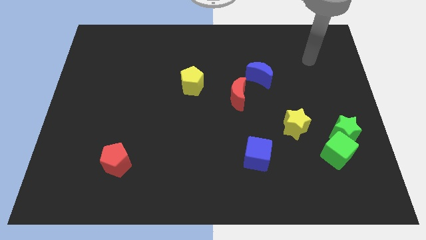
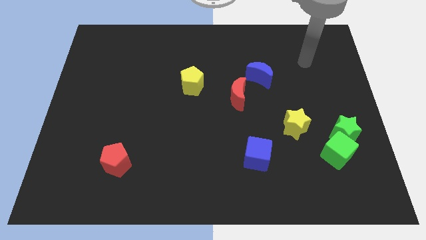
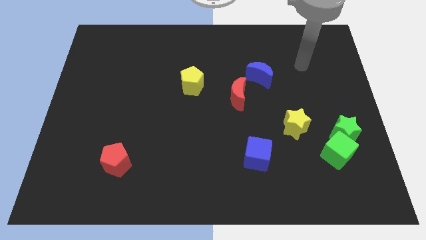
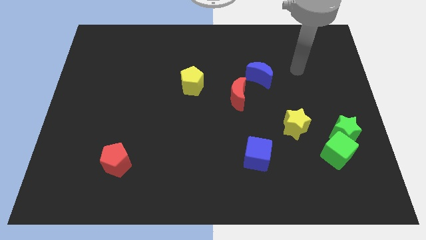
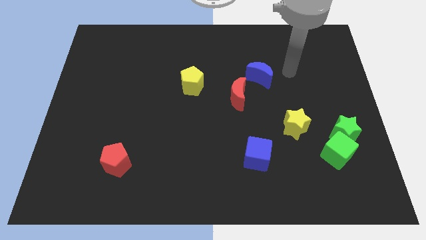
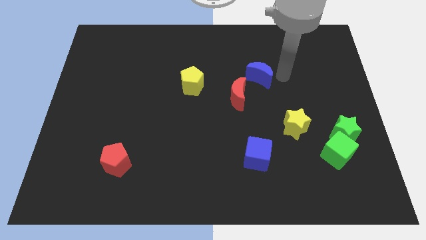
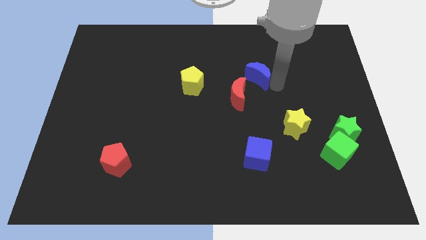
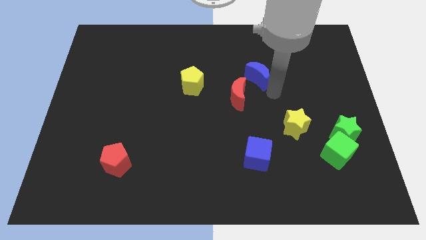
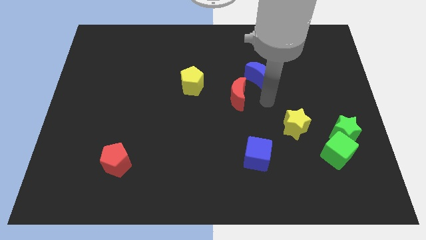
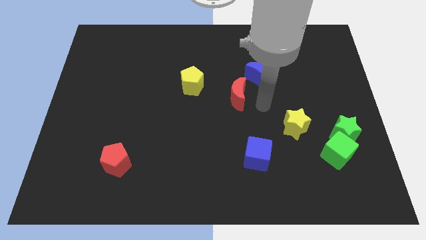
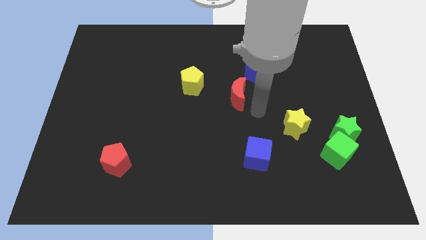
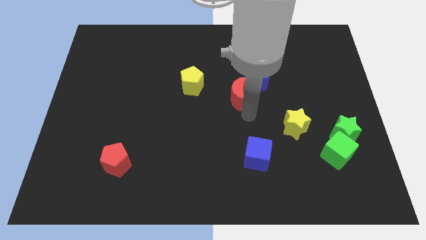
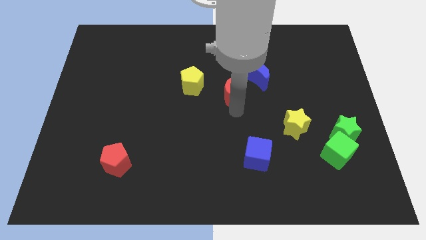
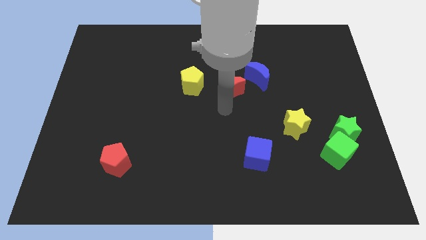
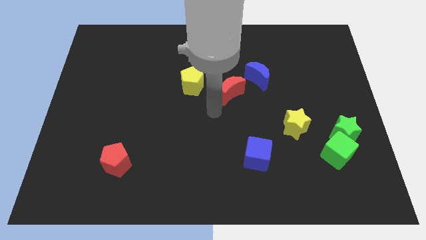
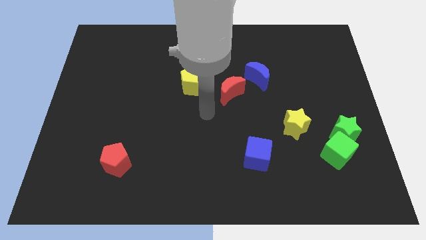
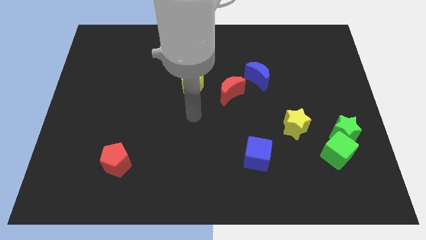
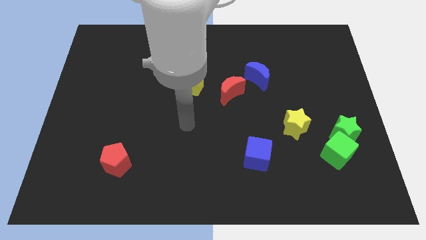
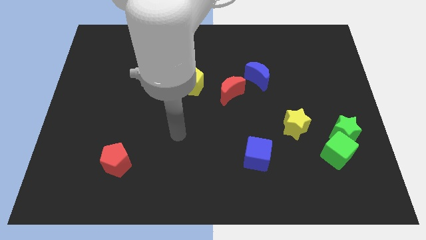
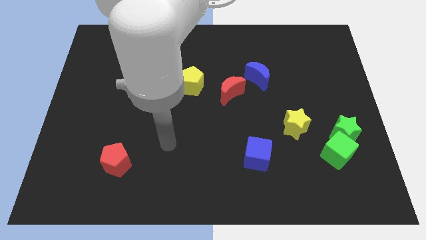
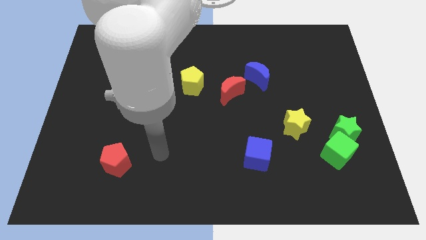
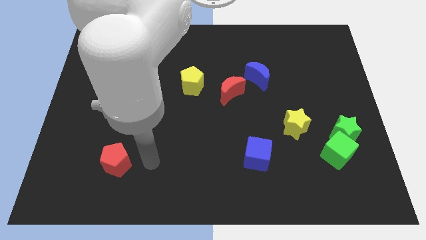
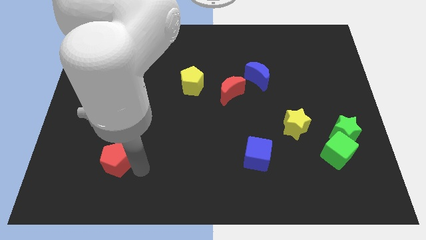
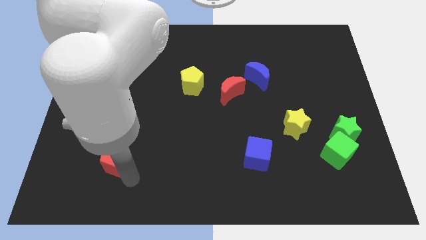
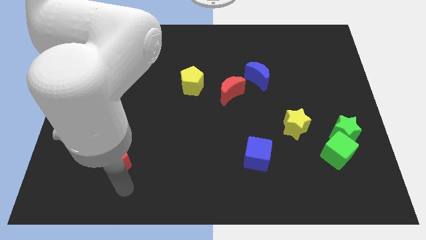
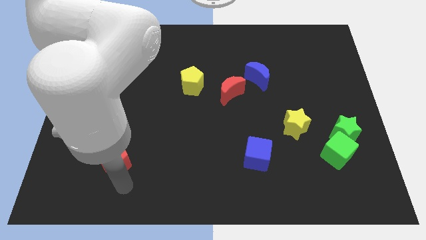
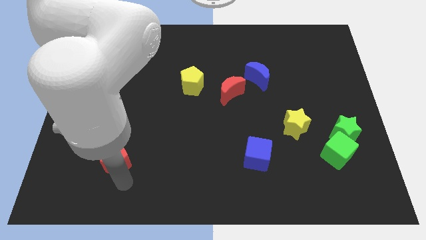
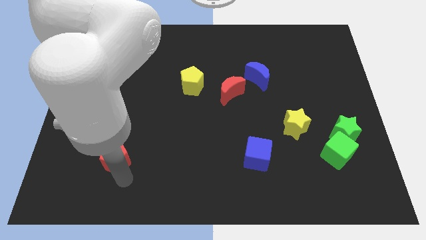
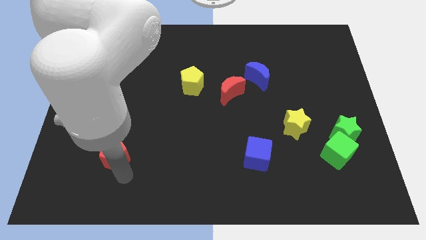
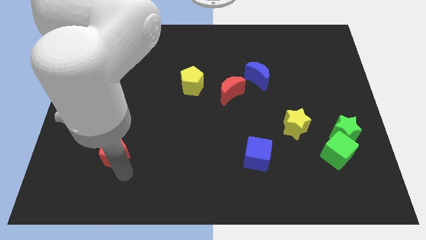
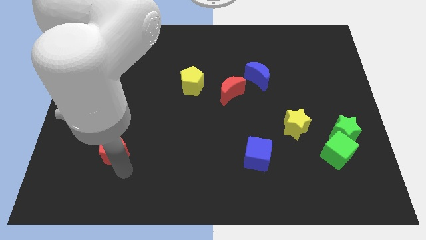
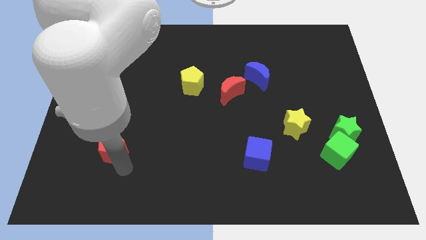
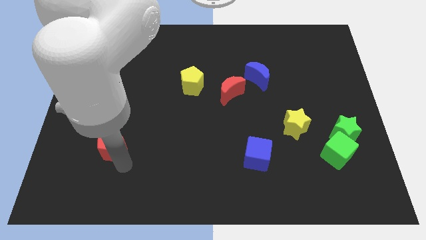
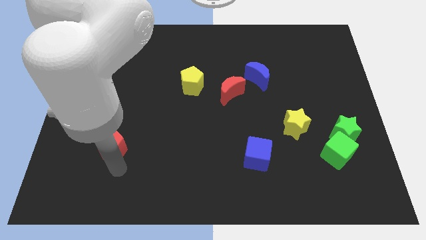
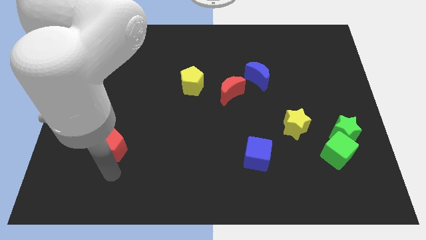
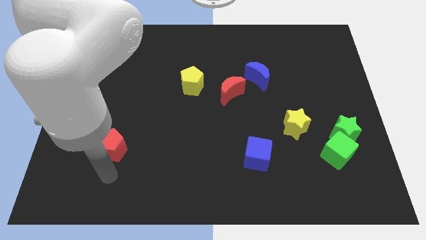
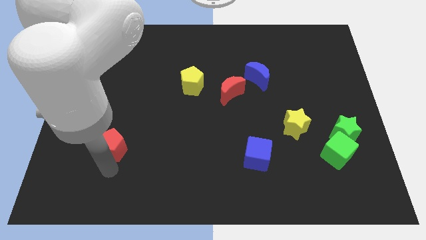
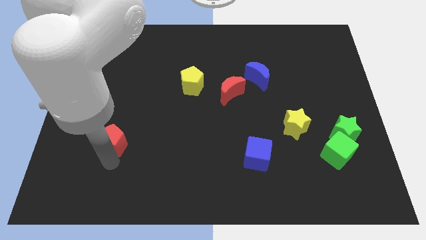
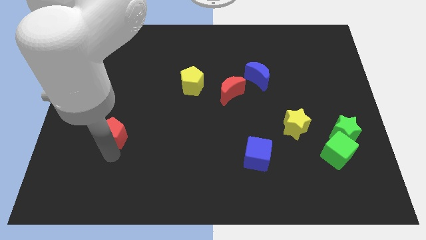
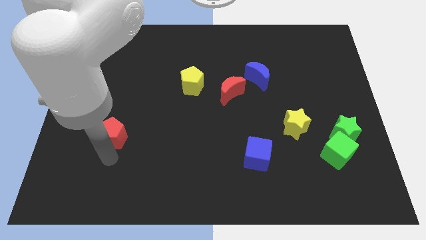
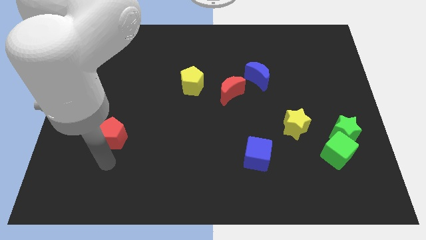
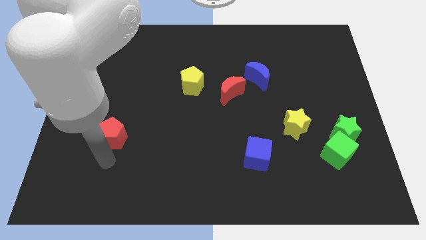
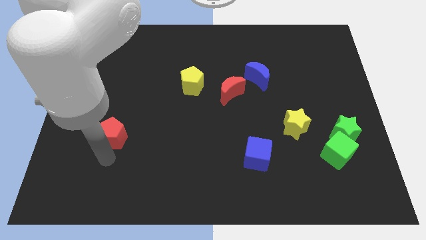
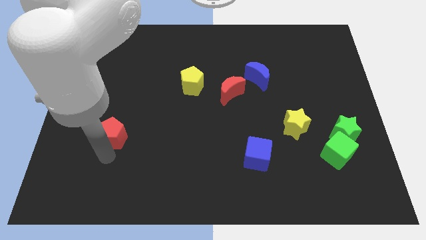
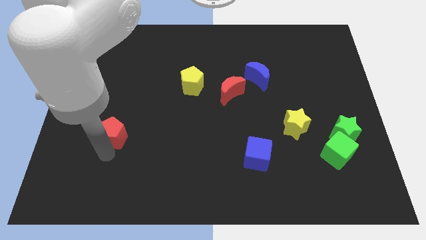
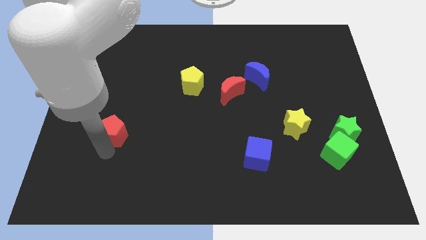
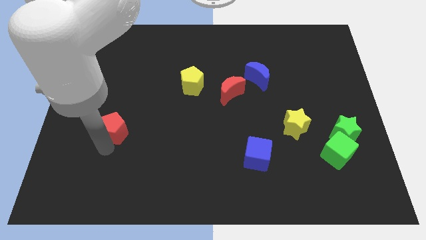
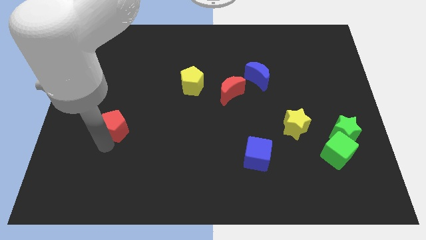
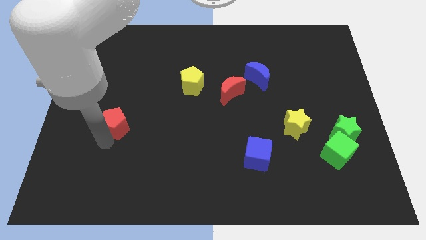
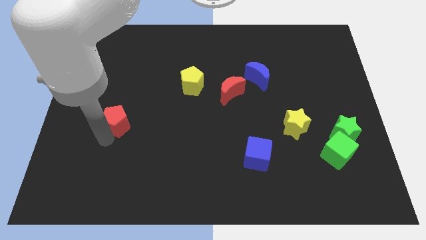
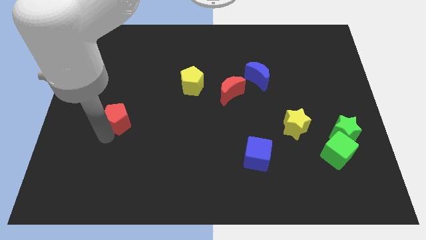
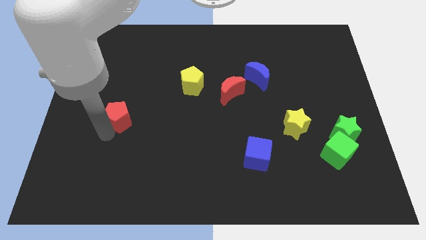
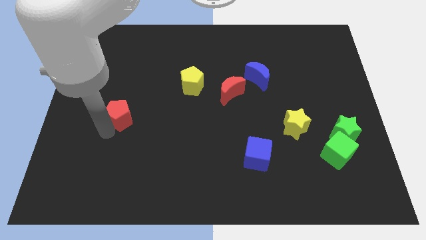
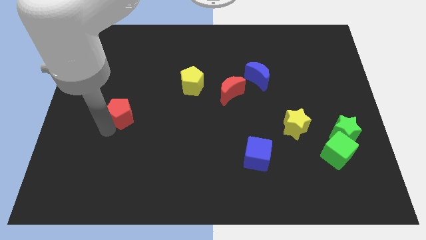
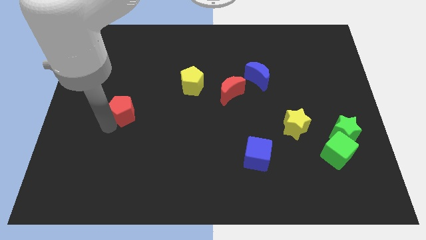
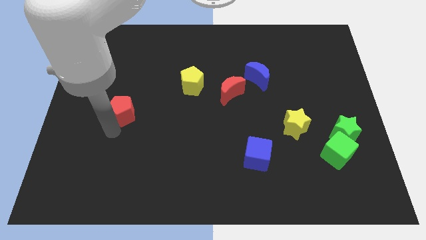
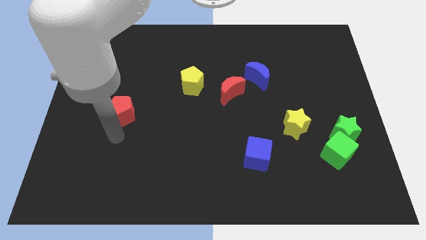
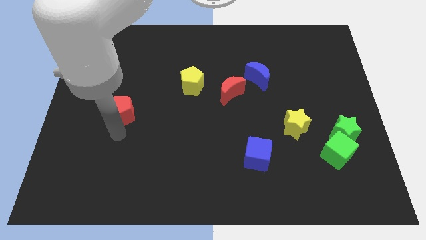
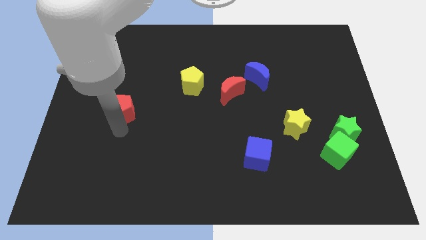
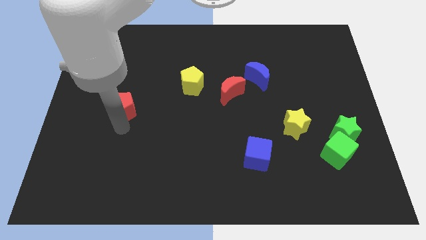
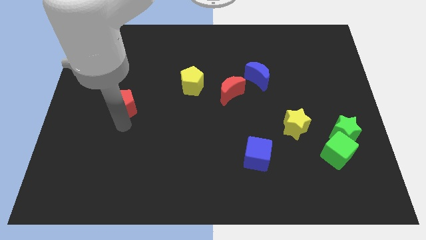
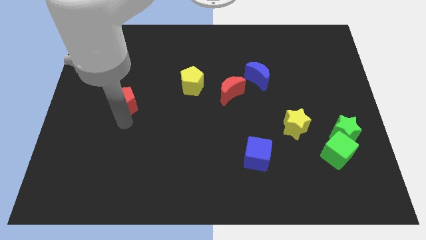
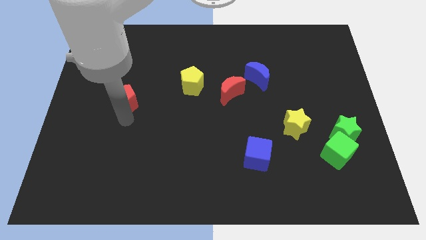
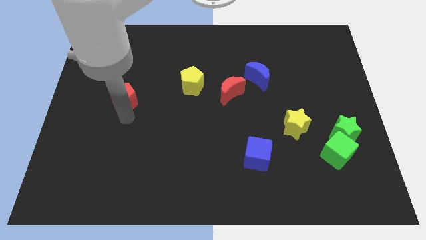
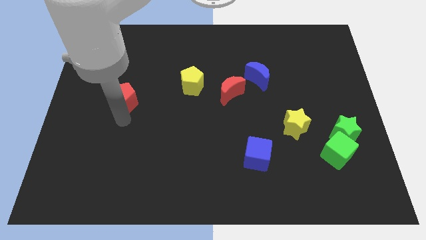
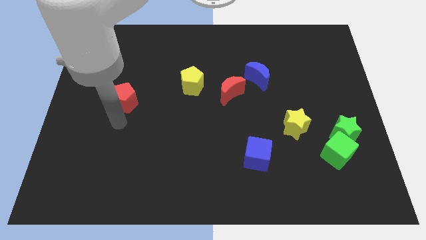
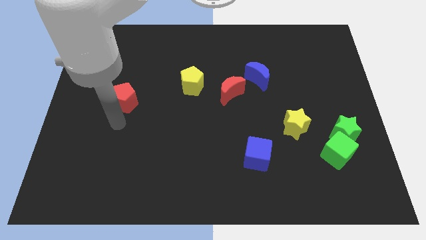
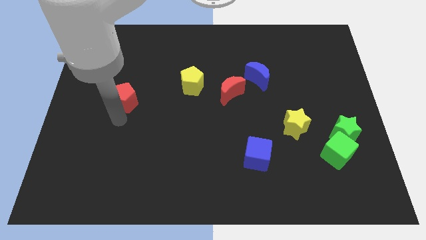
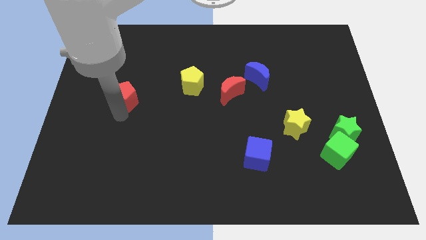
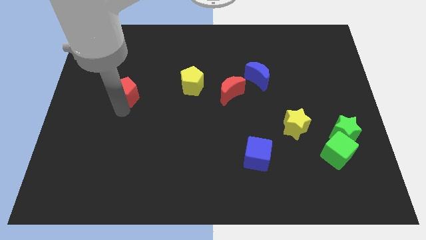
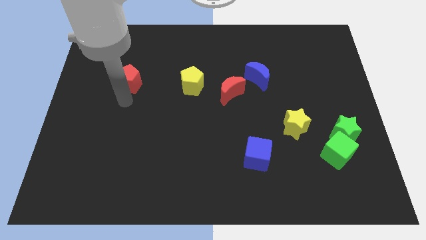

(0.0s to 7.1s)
move the red pentagon upwards

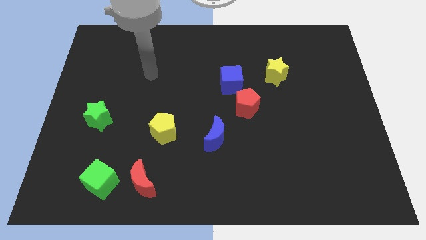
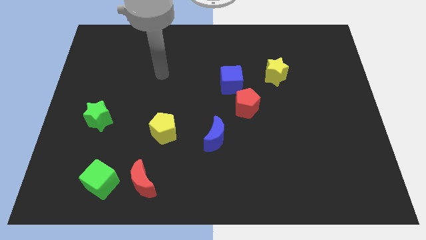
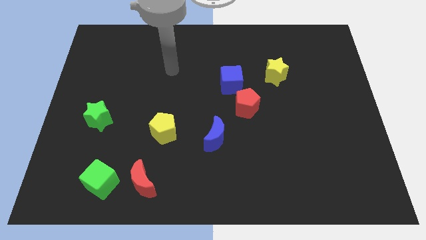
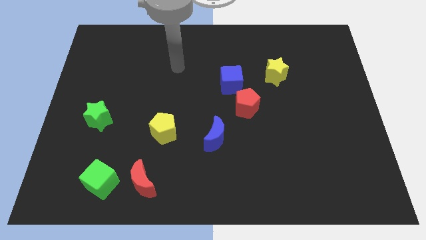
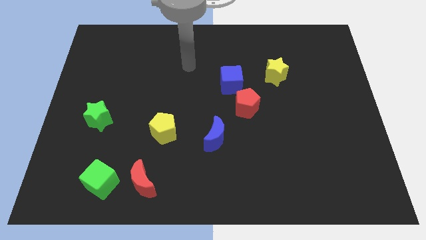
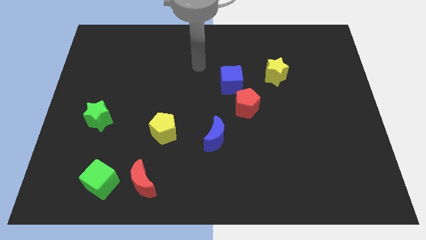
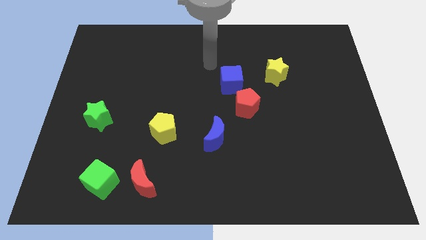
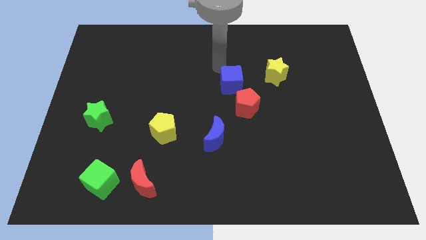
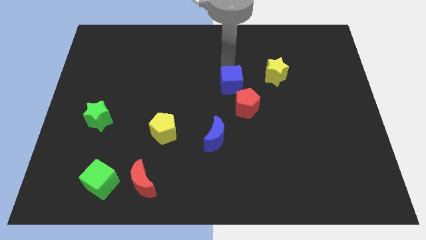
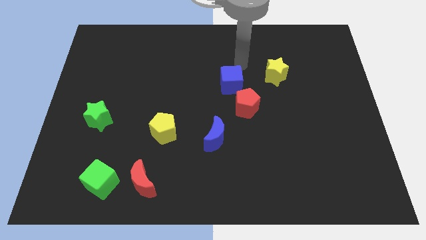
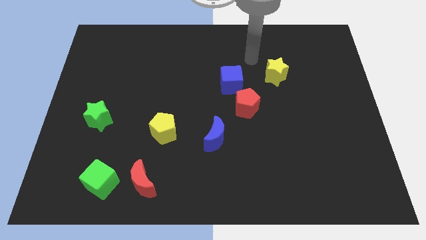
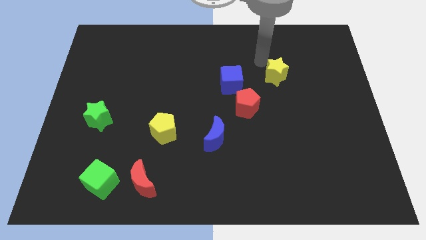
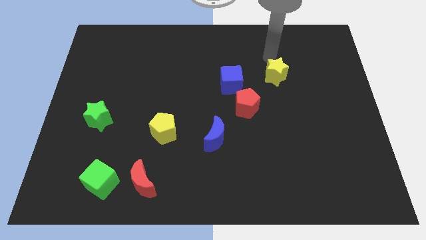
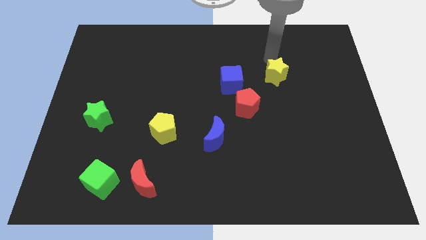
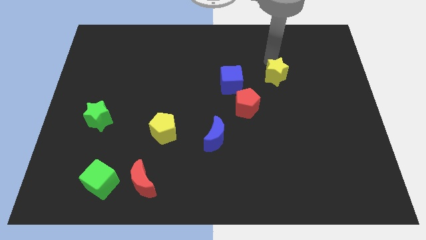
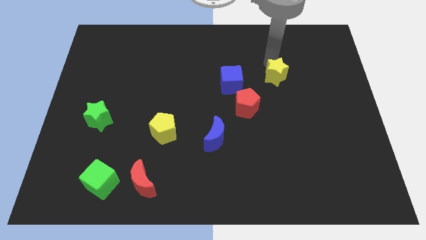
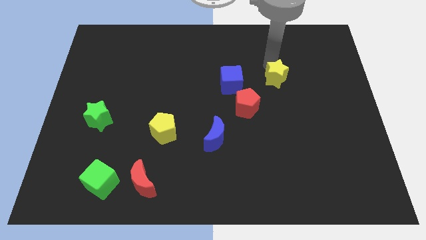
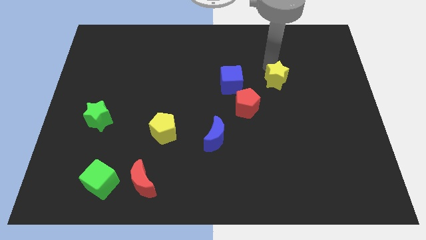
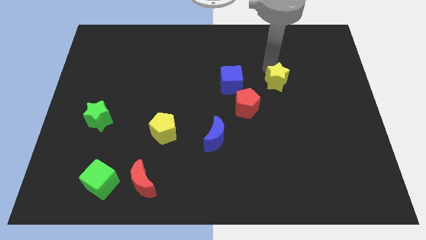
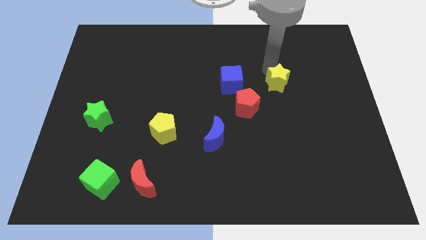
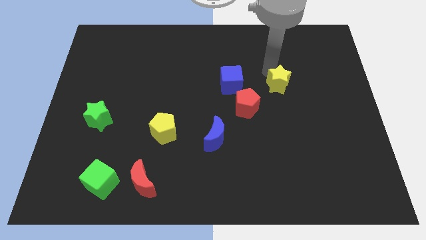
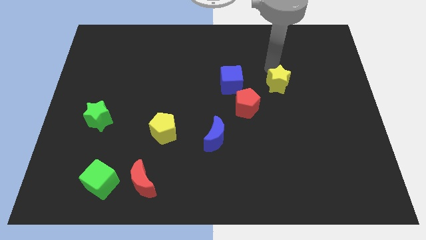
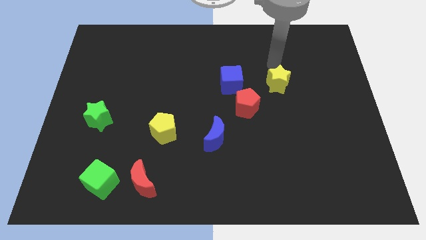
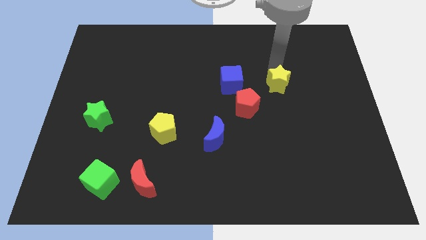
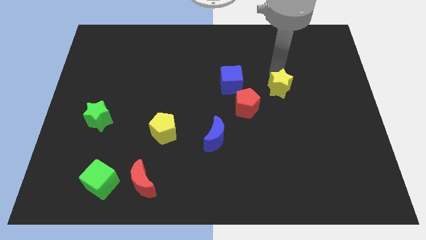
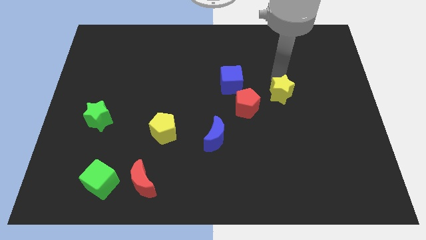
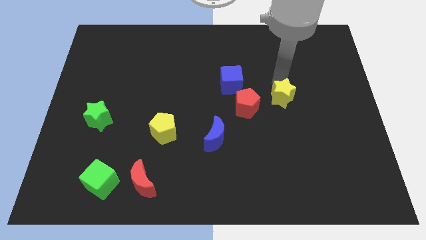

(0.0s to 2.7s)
slightly move the yellow star down
